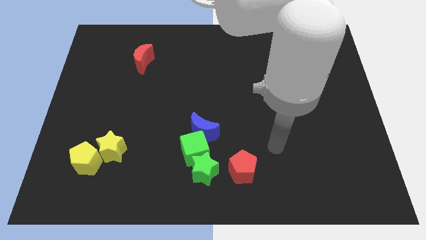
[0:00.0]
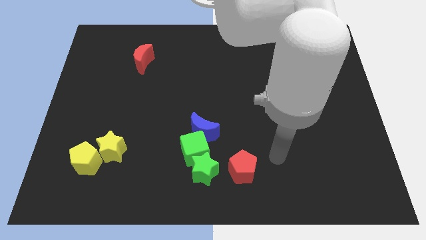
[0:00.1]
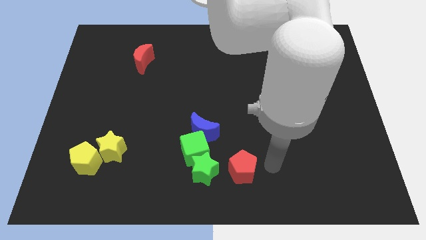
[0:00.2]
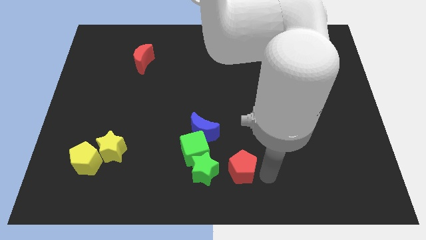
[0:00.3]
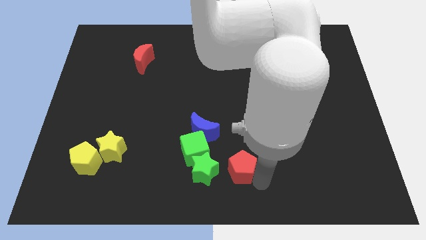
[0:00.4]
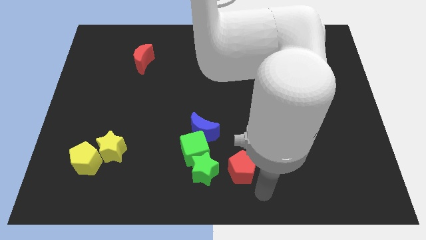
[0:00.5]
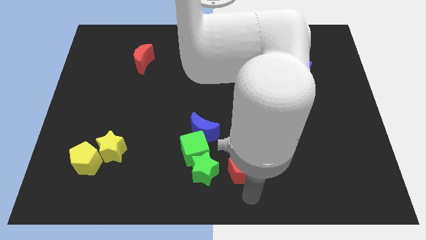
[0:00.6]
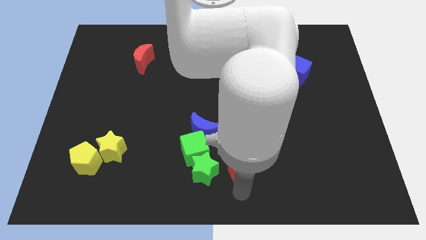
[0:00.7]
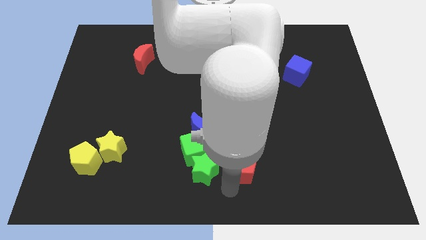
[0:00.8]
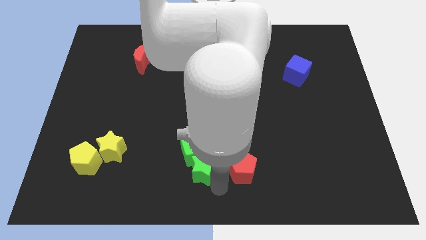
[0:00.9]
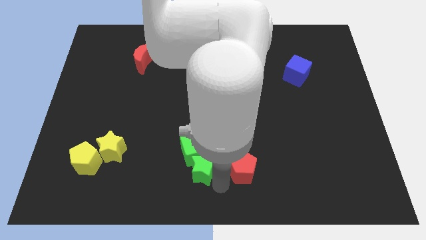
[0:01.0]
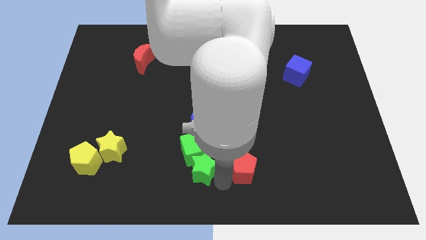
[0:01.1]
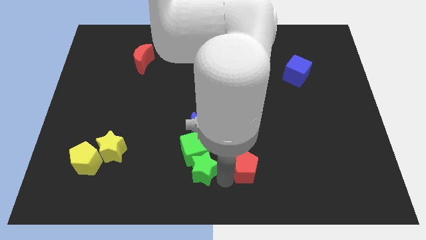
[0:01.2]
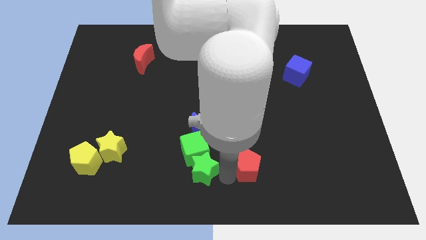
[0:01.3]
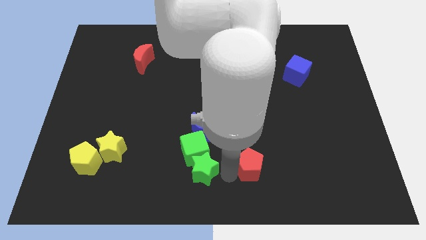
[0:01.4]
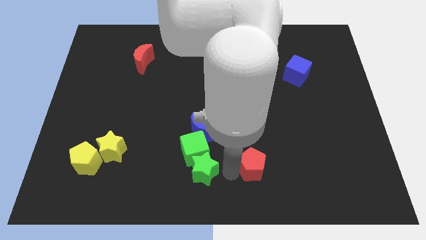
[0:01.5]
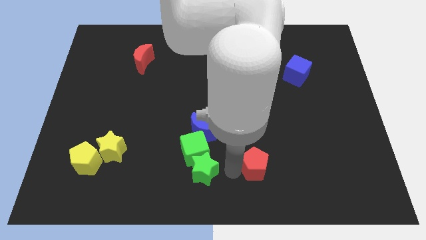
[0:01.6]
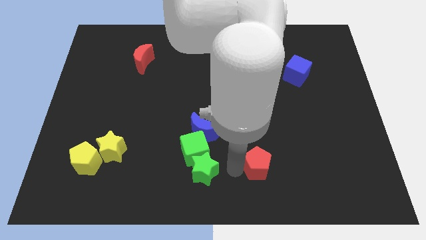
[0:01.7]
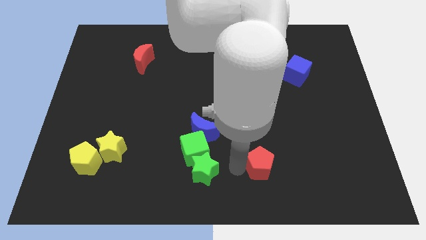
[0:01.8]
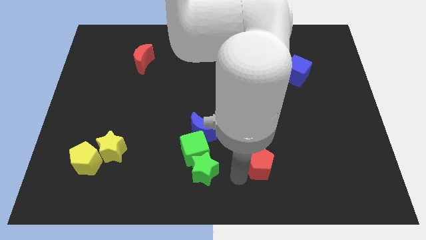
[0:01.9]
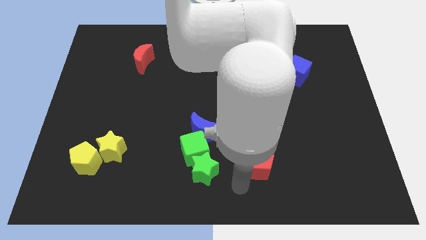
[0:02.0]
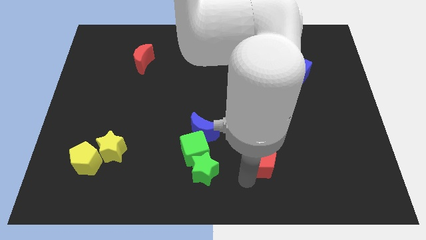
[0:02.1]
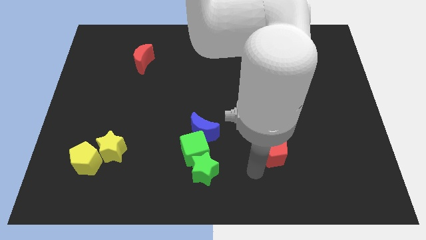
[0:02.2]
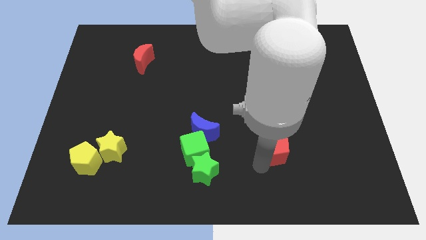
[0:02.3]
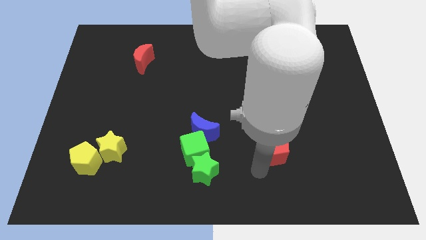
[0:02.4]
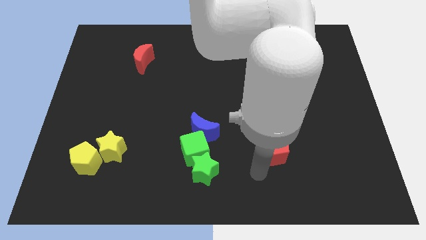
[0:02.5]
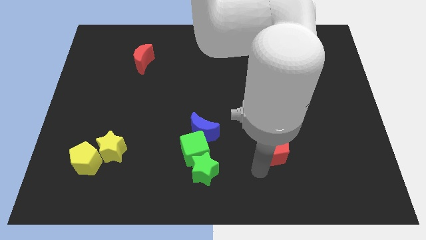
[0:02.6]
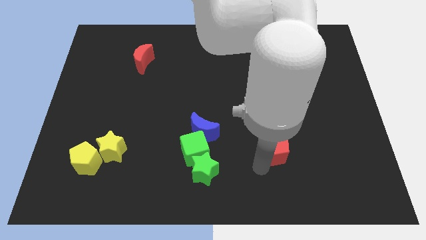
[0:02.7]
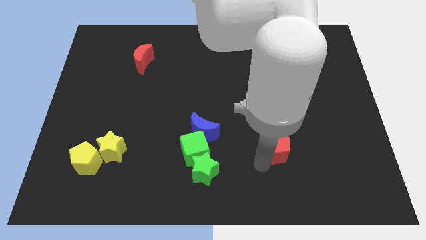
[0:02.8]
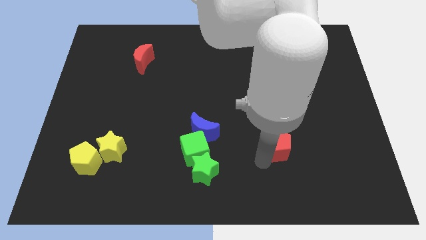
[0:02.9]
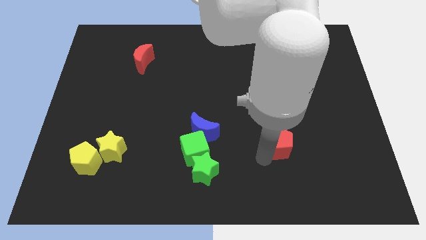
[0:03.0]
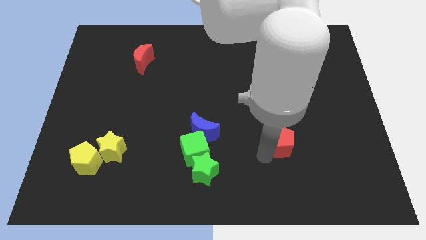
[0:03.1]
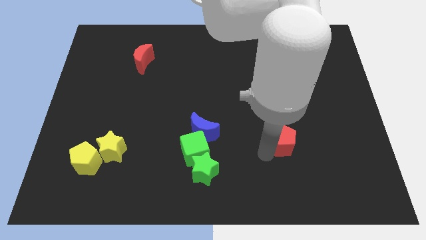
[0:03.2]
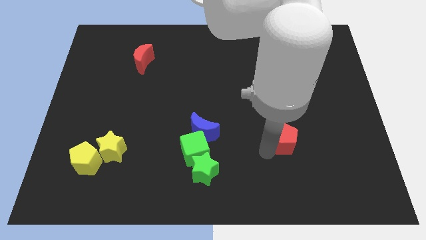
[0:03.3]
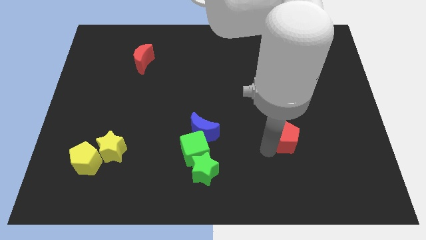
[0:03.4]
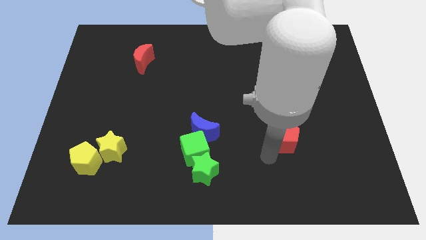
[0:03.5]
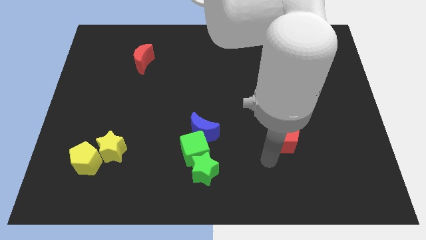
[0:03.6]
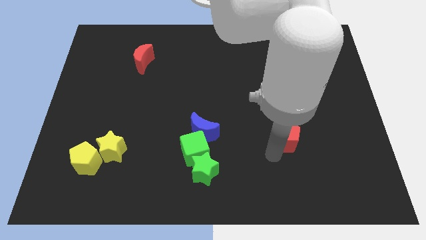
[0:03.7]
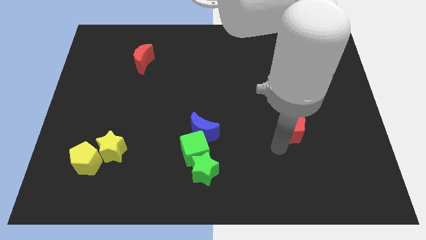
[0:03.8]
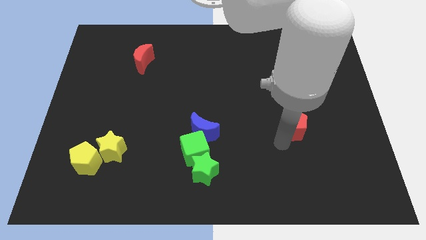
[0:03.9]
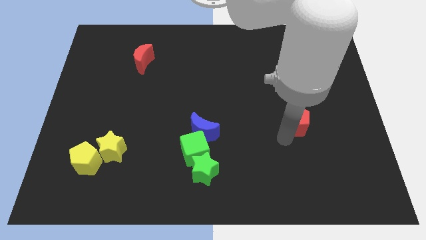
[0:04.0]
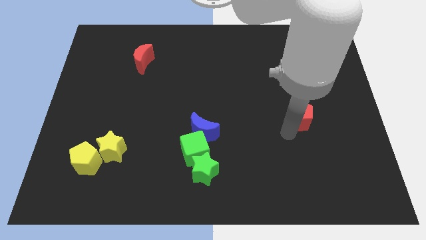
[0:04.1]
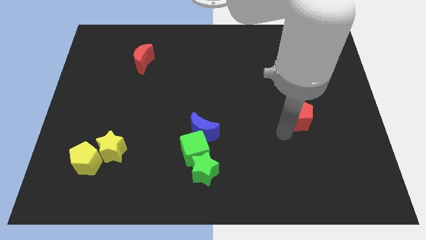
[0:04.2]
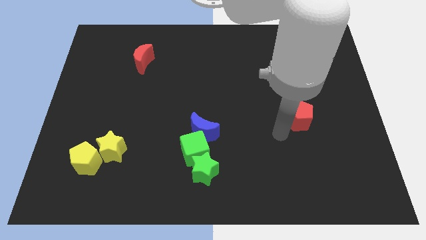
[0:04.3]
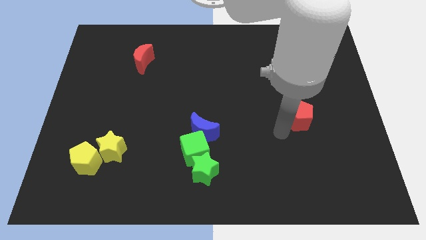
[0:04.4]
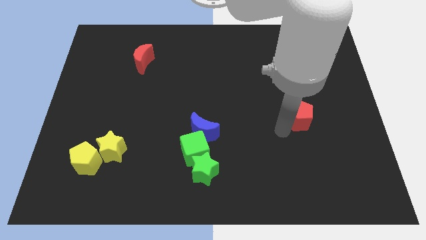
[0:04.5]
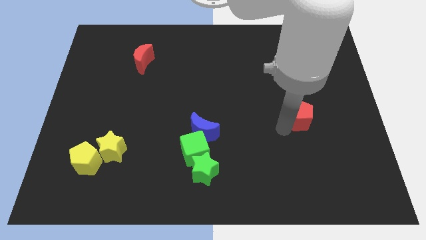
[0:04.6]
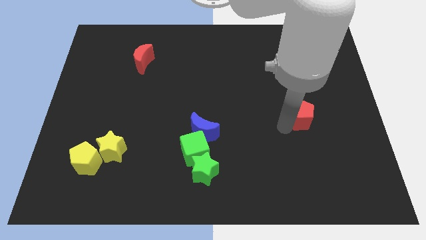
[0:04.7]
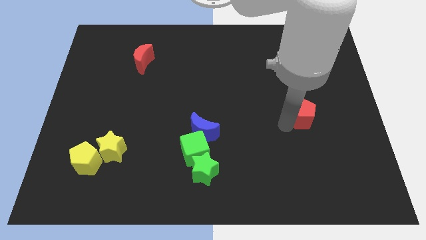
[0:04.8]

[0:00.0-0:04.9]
move the red pentagon upwards and then to the right

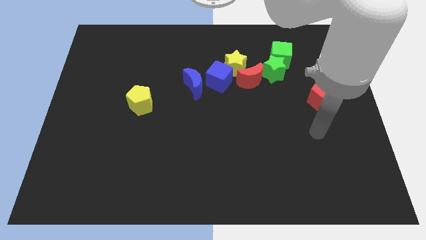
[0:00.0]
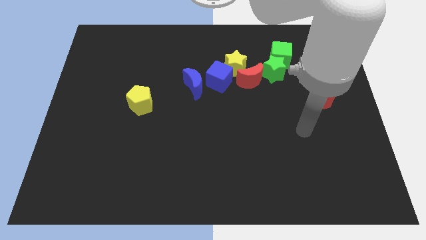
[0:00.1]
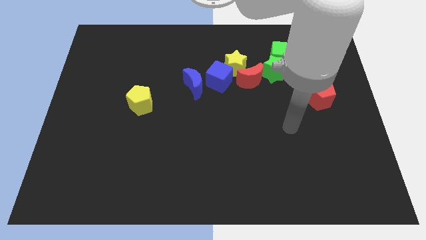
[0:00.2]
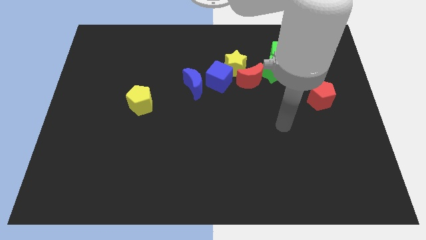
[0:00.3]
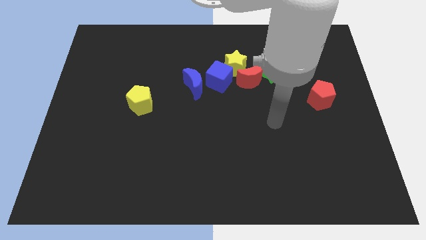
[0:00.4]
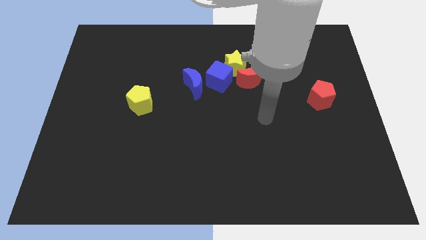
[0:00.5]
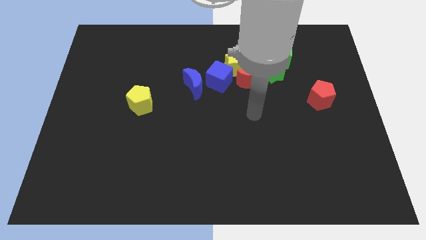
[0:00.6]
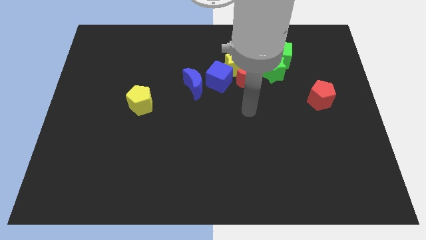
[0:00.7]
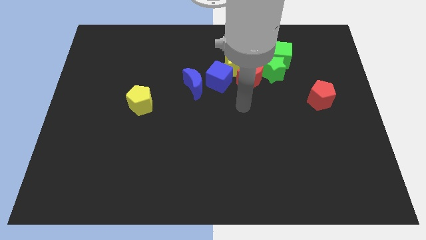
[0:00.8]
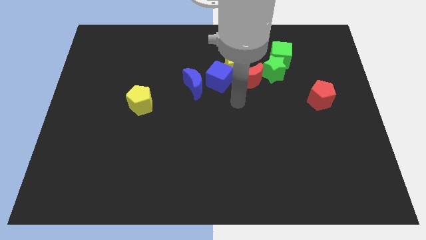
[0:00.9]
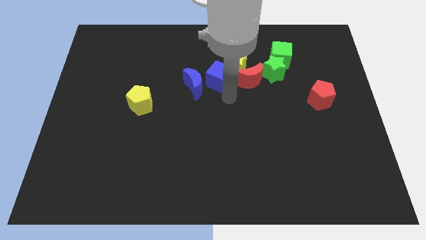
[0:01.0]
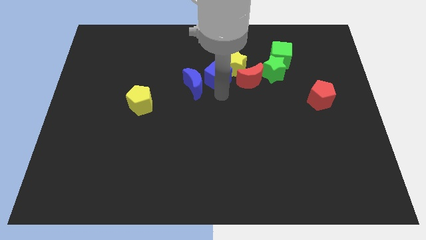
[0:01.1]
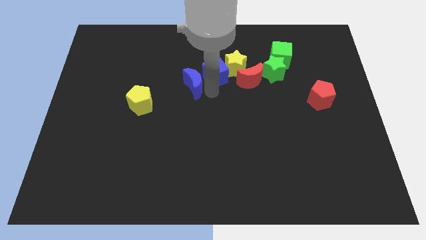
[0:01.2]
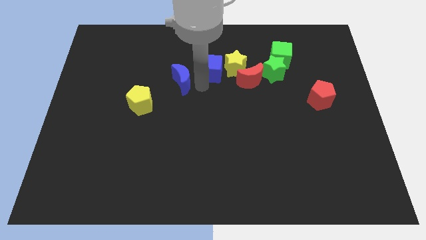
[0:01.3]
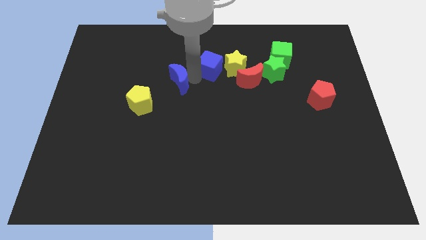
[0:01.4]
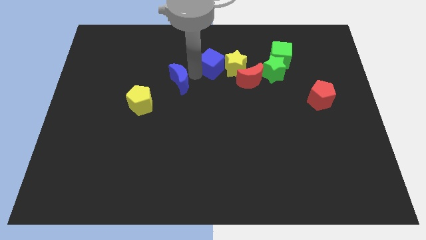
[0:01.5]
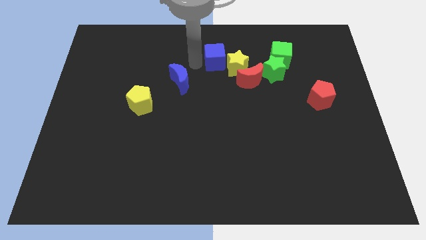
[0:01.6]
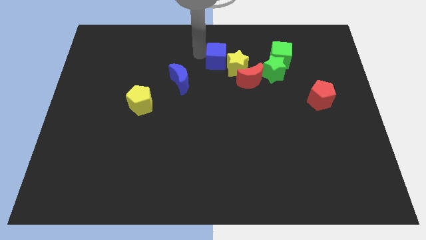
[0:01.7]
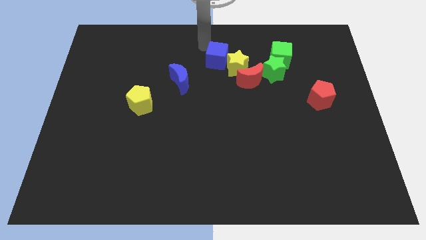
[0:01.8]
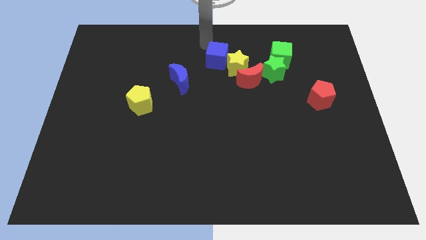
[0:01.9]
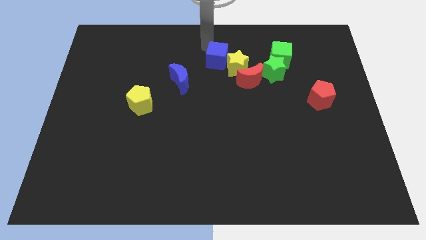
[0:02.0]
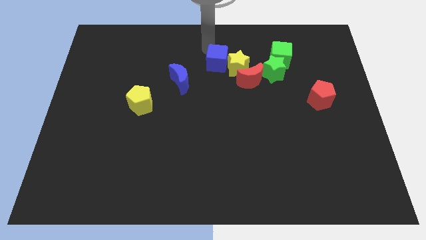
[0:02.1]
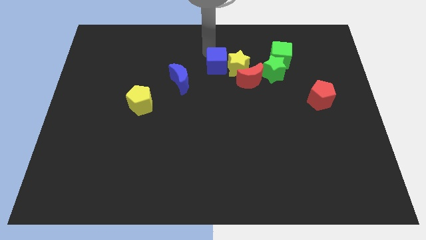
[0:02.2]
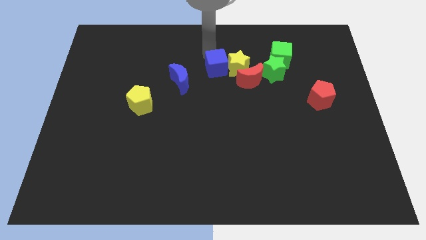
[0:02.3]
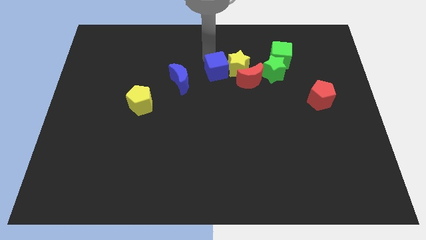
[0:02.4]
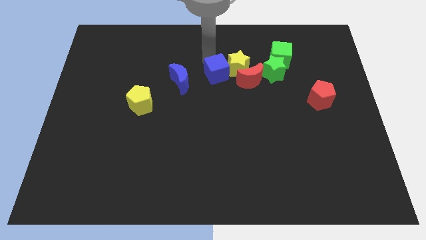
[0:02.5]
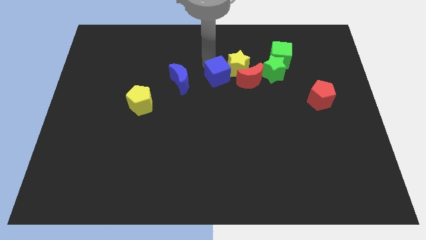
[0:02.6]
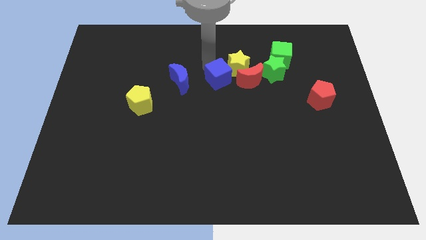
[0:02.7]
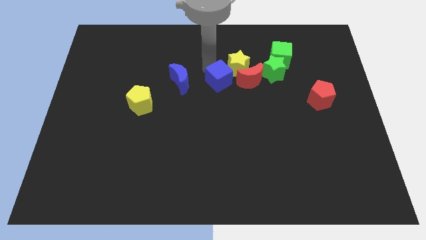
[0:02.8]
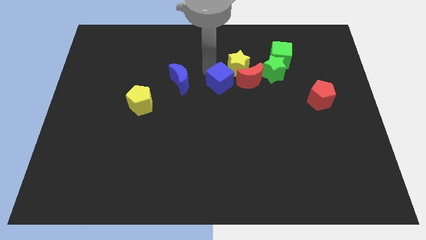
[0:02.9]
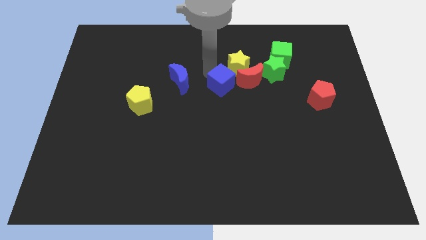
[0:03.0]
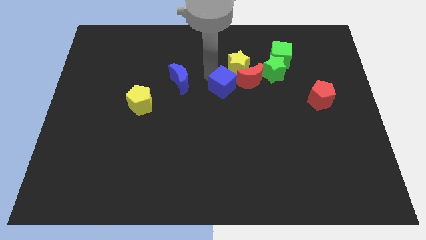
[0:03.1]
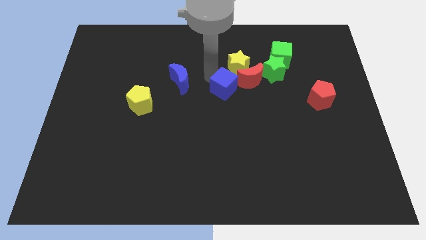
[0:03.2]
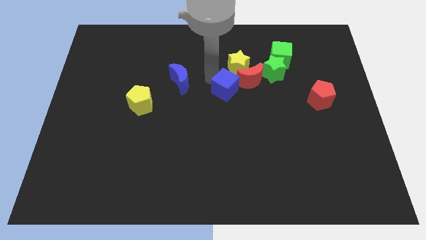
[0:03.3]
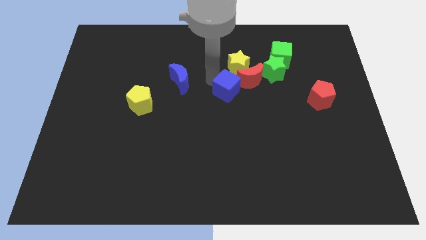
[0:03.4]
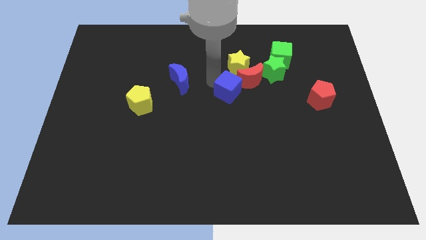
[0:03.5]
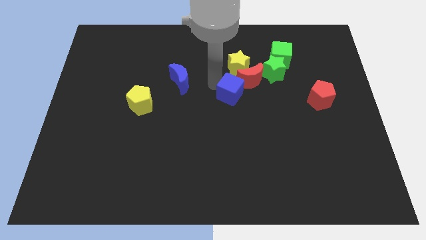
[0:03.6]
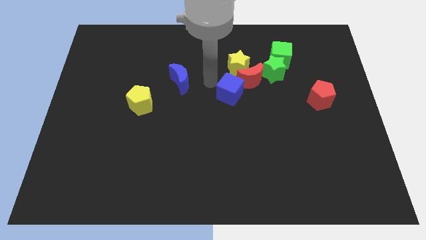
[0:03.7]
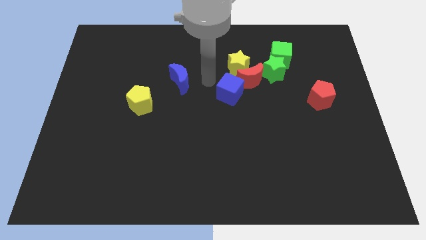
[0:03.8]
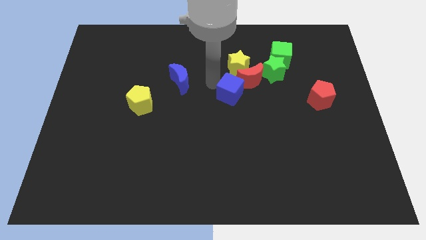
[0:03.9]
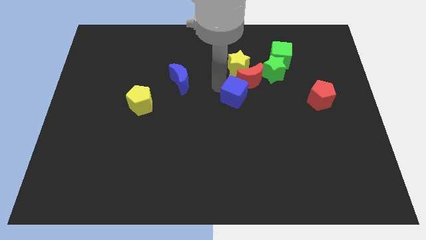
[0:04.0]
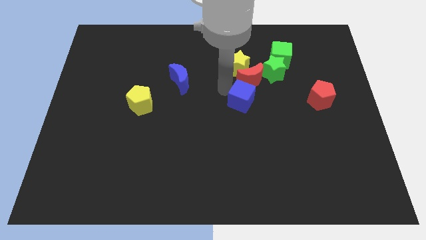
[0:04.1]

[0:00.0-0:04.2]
push the blue cube downwards and then to the right somewhat
